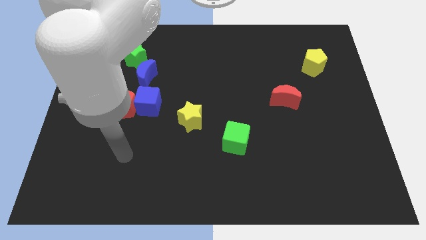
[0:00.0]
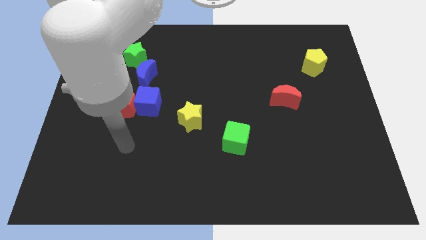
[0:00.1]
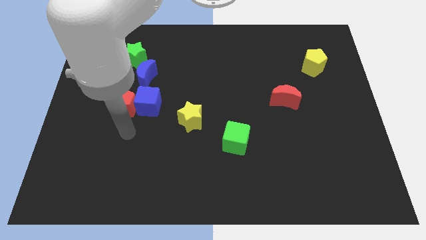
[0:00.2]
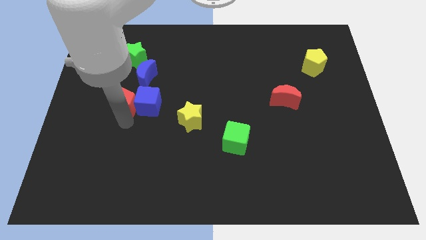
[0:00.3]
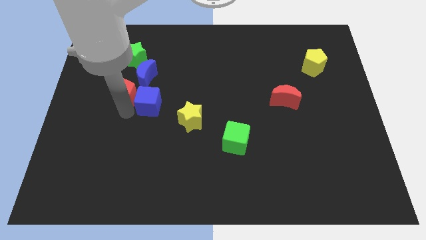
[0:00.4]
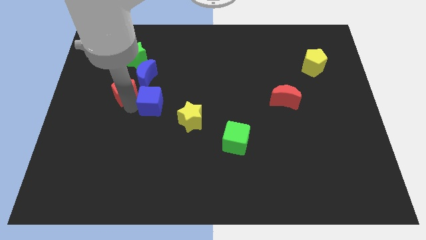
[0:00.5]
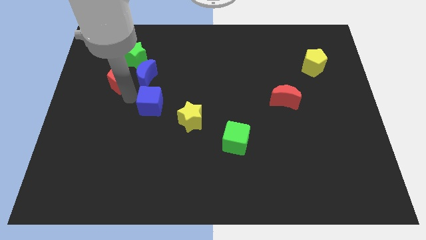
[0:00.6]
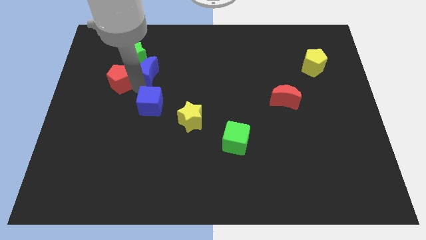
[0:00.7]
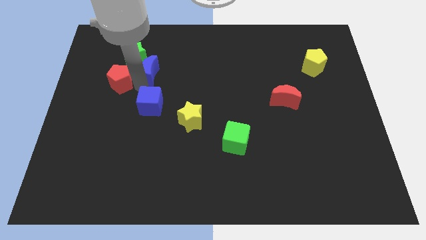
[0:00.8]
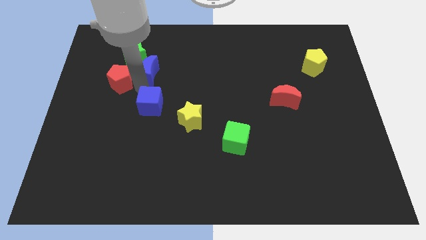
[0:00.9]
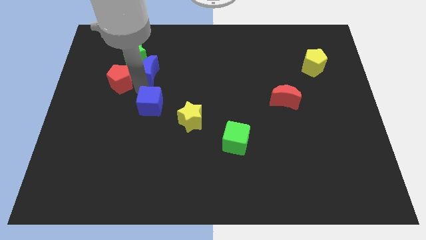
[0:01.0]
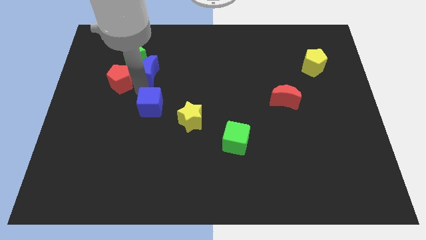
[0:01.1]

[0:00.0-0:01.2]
move the blue cube away from the red pentagon and blue moon

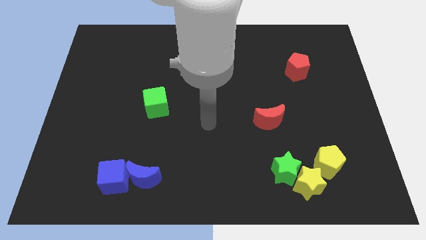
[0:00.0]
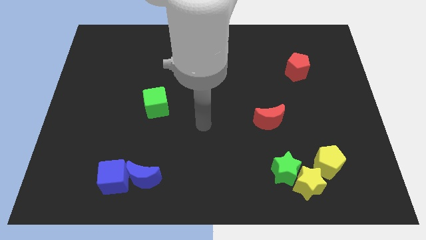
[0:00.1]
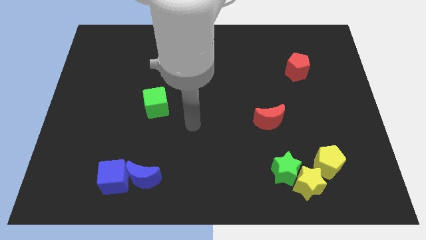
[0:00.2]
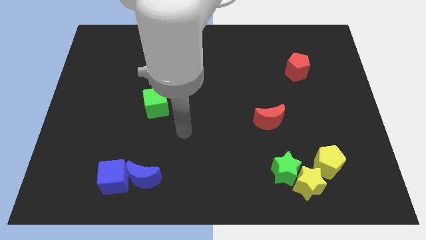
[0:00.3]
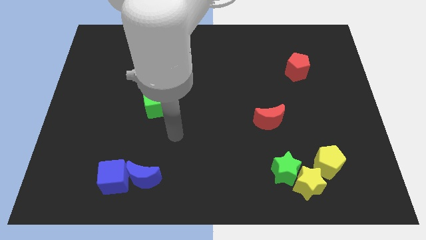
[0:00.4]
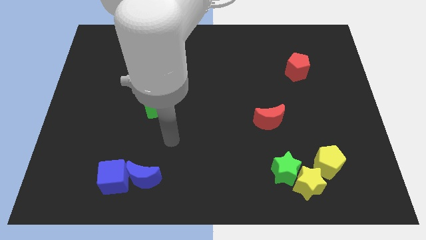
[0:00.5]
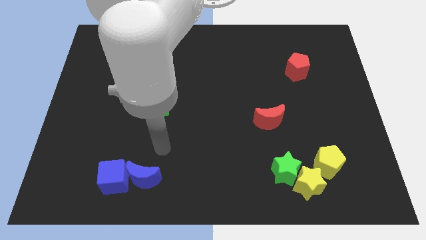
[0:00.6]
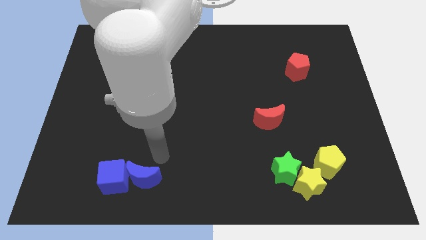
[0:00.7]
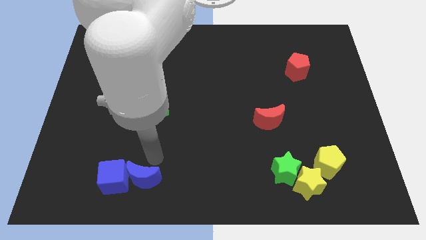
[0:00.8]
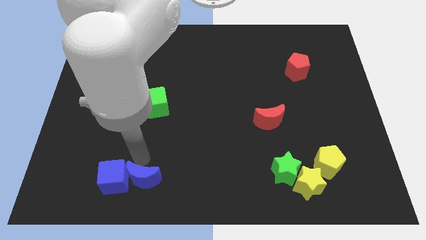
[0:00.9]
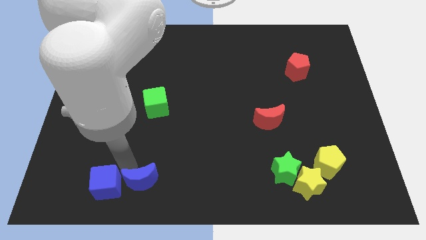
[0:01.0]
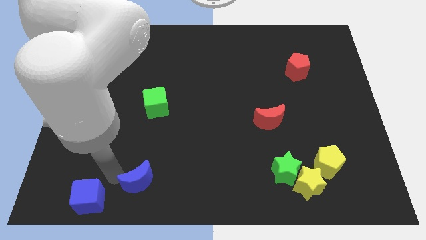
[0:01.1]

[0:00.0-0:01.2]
move the blue moon away from the blue cube

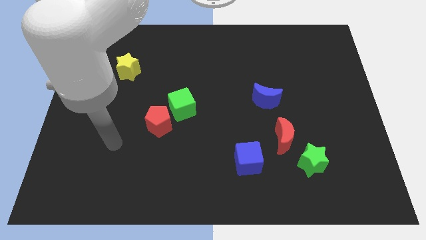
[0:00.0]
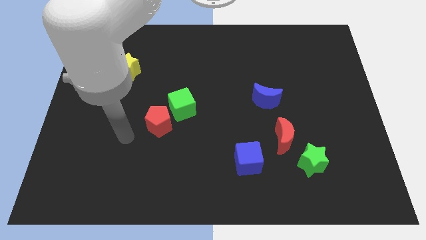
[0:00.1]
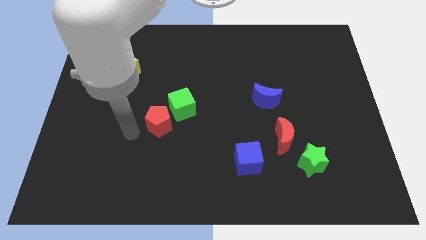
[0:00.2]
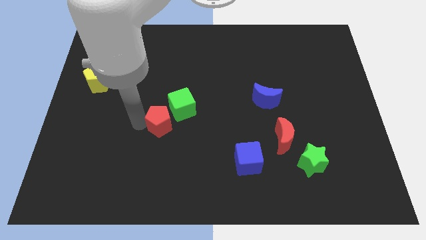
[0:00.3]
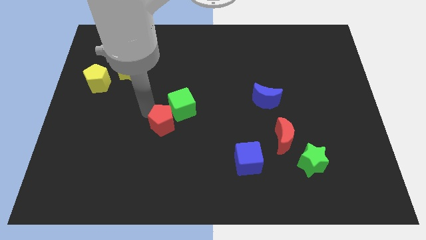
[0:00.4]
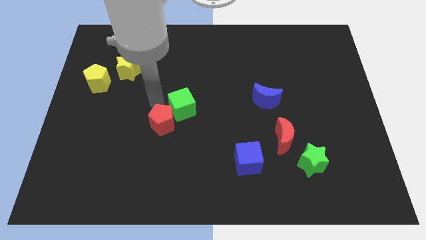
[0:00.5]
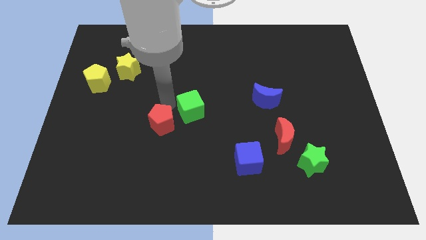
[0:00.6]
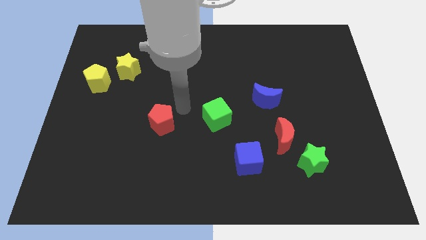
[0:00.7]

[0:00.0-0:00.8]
pull the red pentagon apart from the green cube

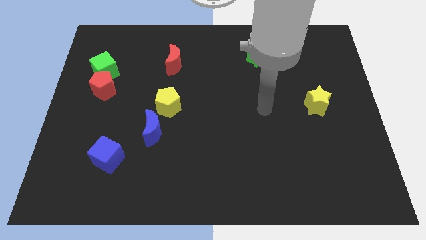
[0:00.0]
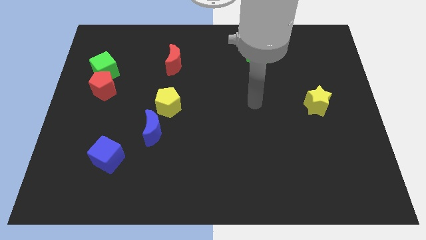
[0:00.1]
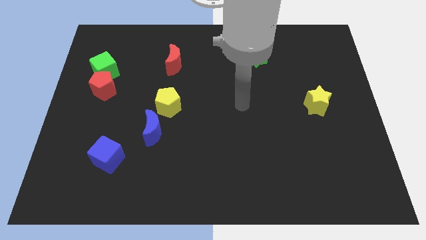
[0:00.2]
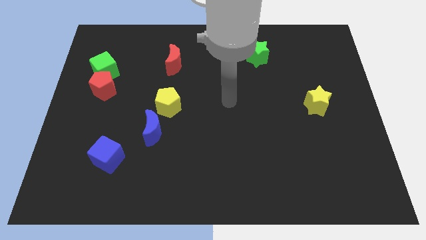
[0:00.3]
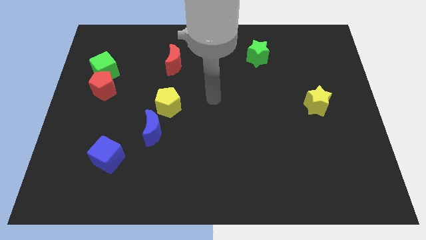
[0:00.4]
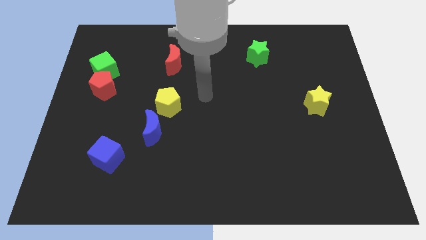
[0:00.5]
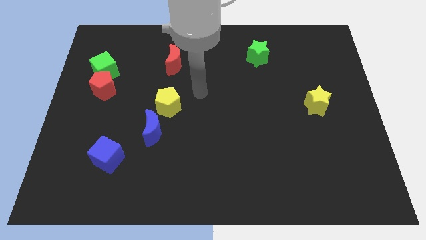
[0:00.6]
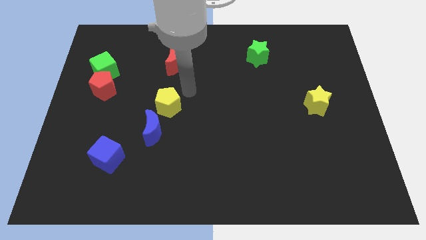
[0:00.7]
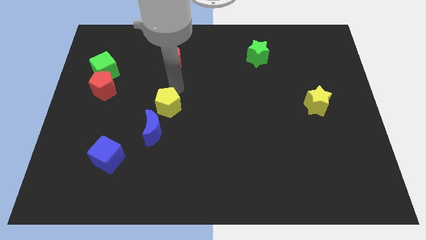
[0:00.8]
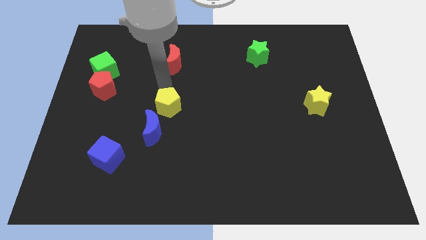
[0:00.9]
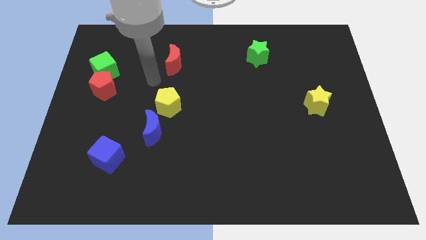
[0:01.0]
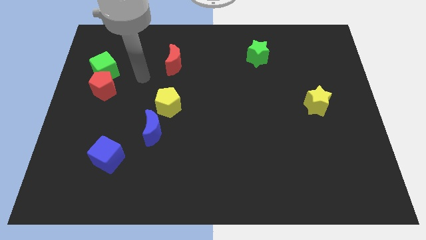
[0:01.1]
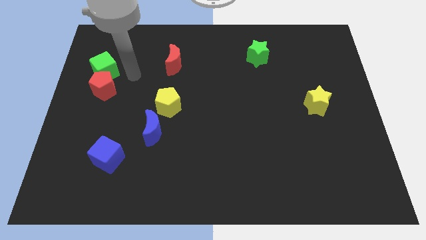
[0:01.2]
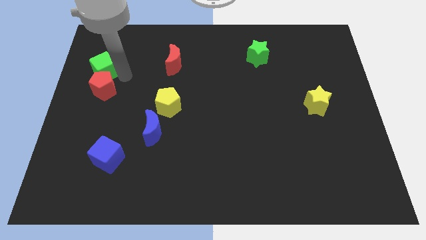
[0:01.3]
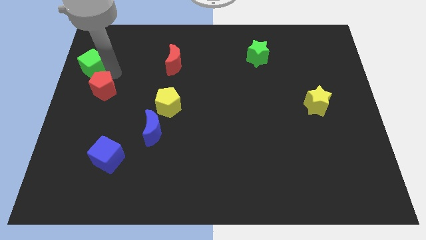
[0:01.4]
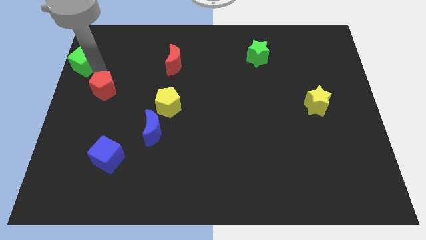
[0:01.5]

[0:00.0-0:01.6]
separate the red pentagon from the green cube

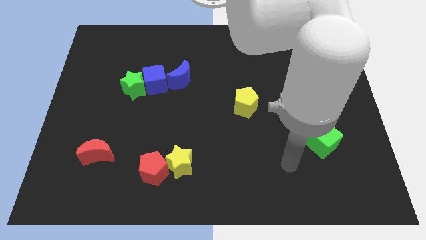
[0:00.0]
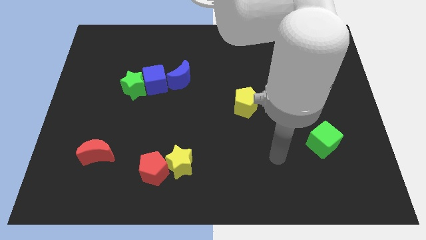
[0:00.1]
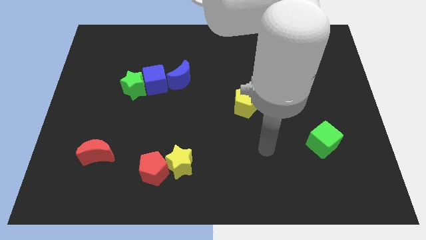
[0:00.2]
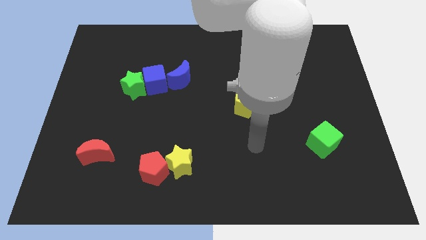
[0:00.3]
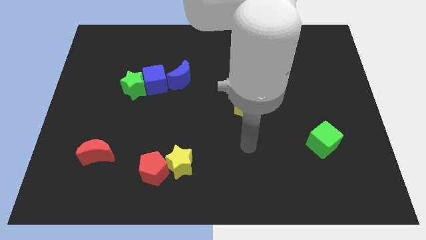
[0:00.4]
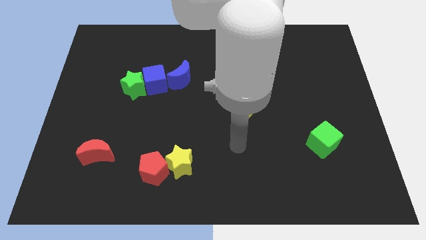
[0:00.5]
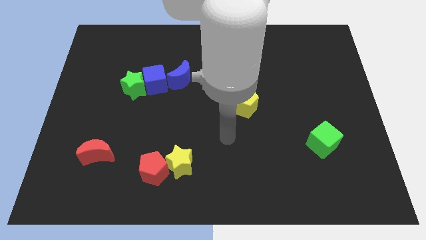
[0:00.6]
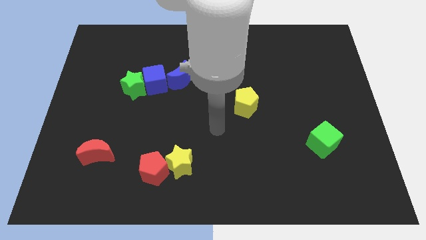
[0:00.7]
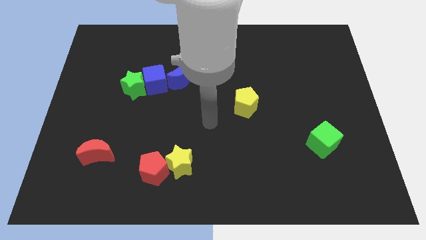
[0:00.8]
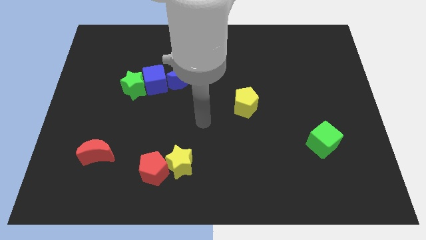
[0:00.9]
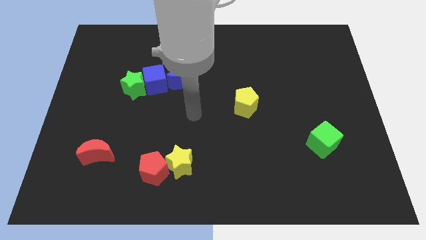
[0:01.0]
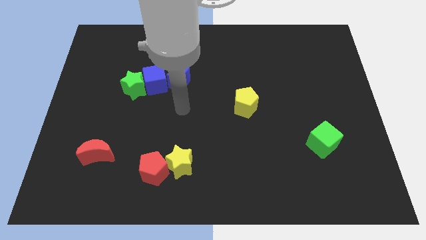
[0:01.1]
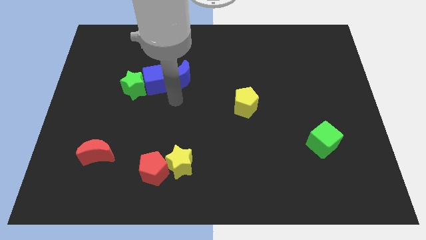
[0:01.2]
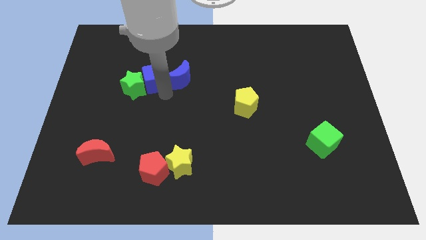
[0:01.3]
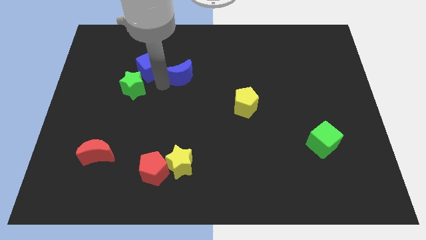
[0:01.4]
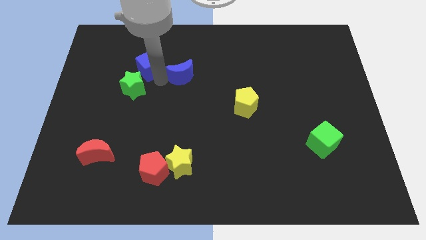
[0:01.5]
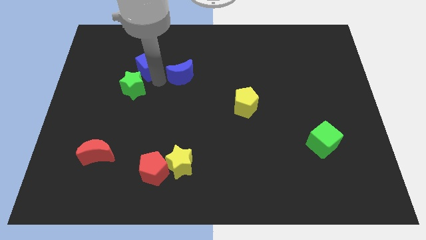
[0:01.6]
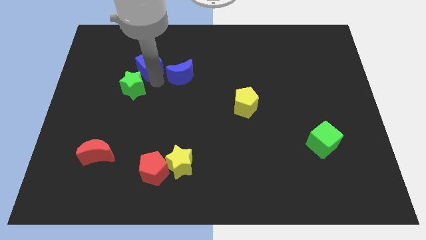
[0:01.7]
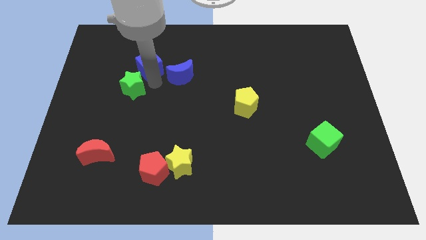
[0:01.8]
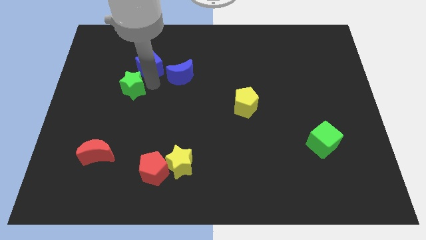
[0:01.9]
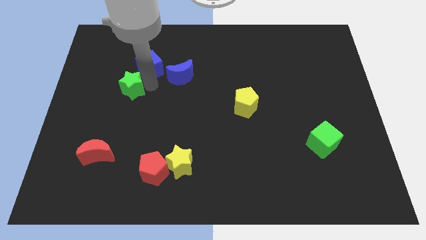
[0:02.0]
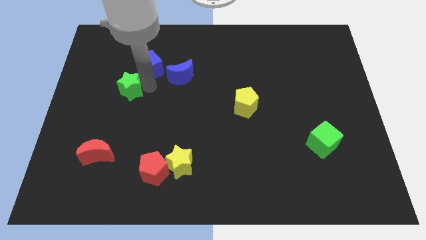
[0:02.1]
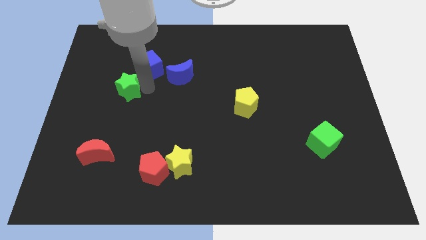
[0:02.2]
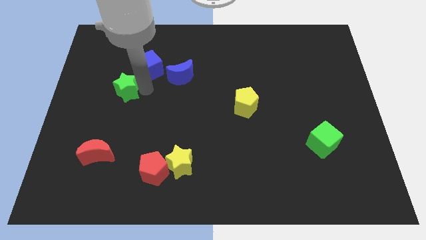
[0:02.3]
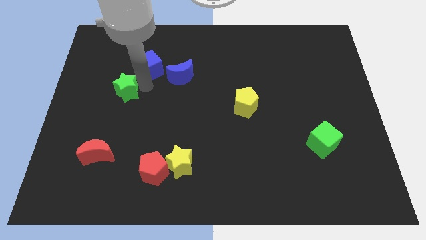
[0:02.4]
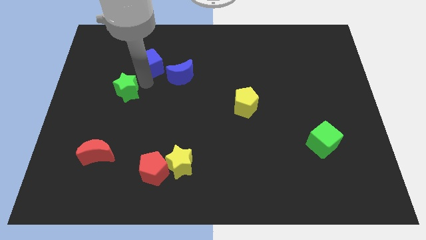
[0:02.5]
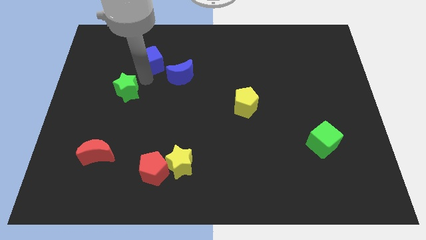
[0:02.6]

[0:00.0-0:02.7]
move the green star away from the blue cube

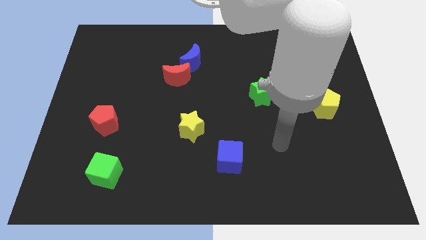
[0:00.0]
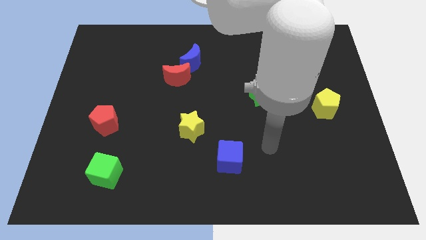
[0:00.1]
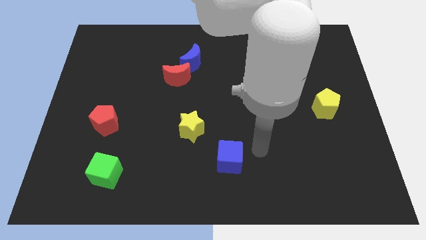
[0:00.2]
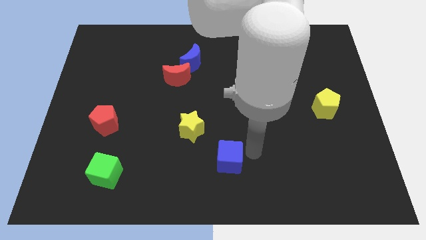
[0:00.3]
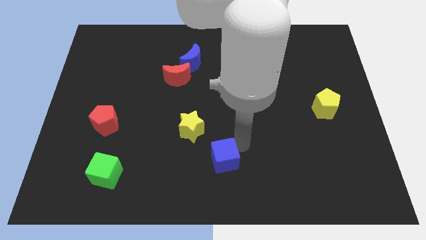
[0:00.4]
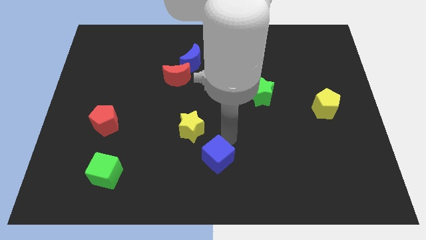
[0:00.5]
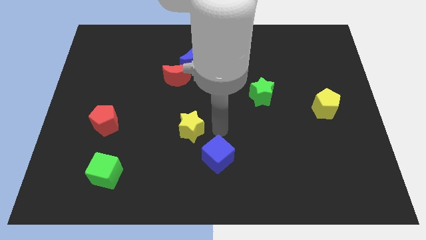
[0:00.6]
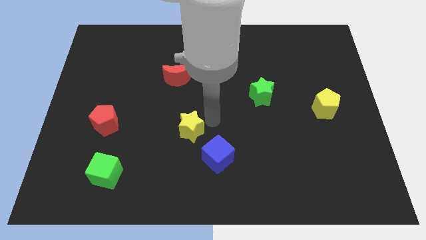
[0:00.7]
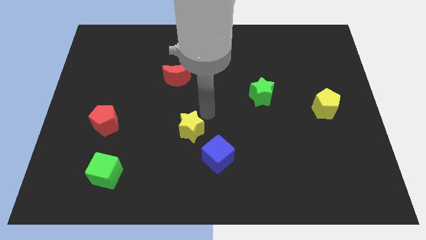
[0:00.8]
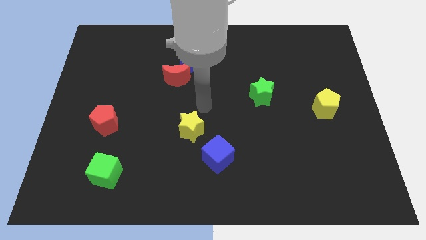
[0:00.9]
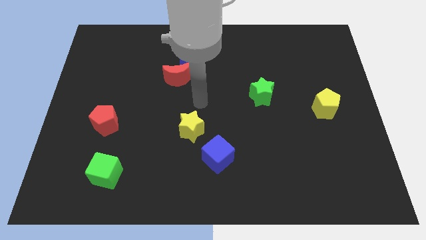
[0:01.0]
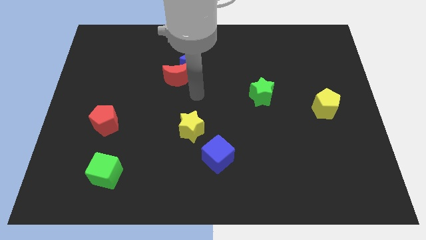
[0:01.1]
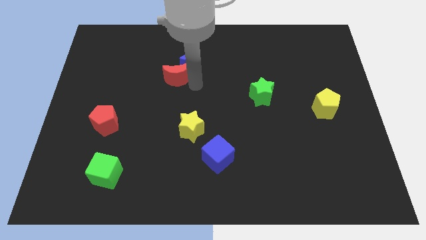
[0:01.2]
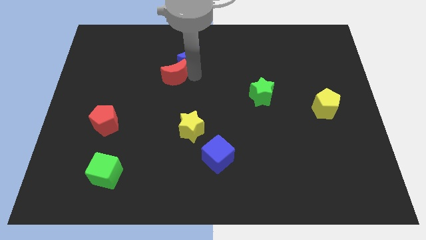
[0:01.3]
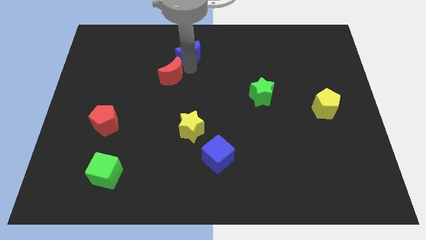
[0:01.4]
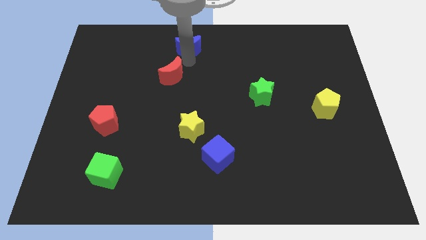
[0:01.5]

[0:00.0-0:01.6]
separate the red moon from the blue moon

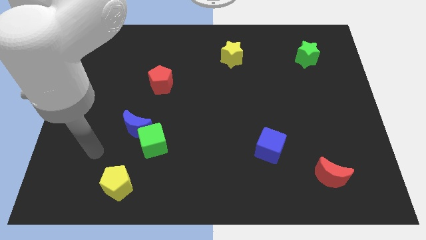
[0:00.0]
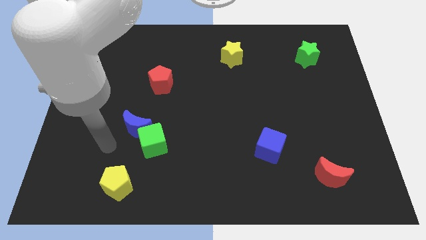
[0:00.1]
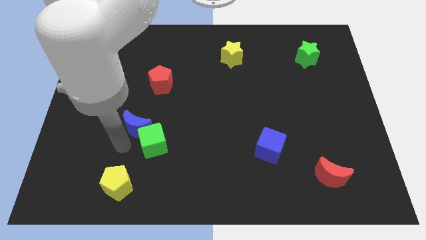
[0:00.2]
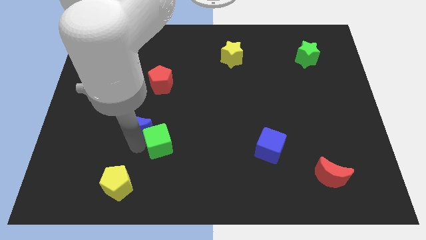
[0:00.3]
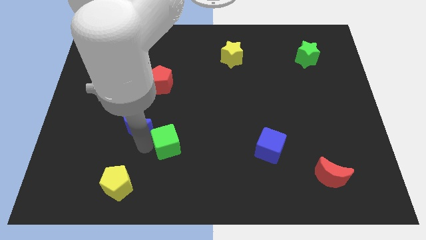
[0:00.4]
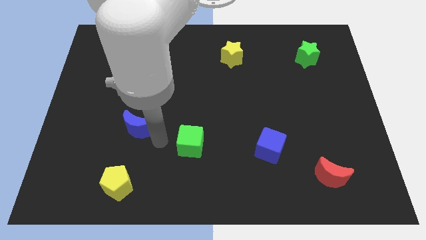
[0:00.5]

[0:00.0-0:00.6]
separate the blue moon from the green cube
